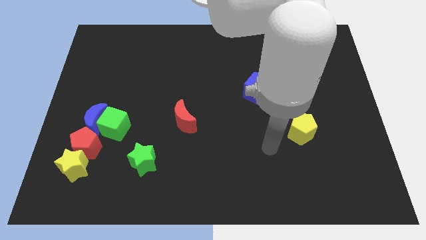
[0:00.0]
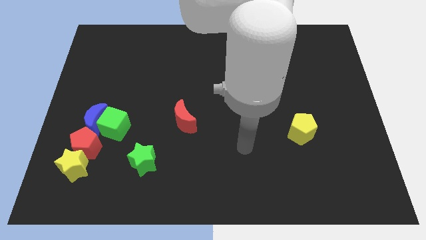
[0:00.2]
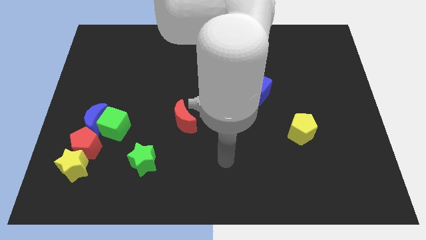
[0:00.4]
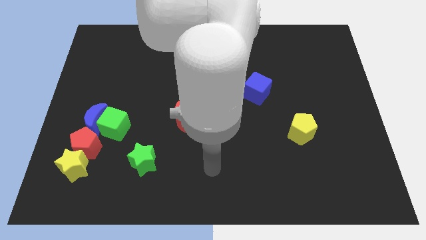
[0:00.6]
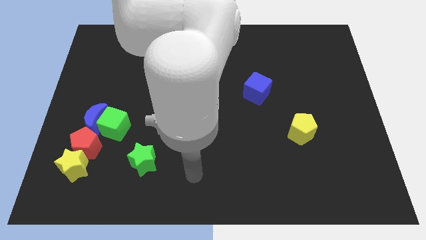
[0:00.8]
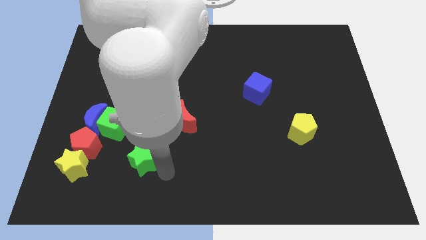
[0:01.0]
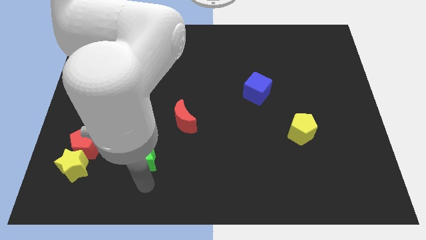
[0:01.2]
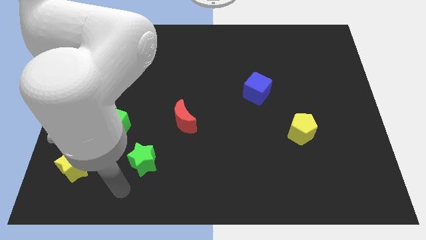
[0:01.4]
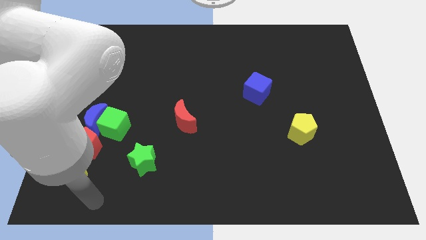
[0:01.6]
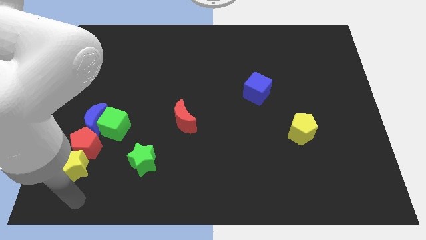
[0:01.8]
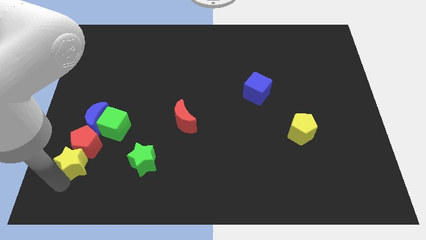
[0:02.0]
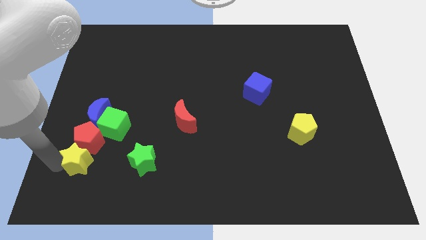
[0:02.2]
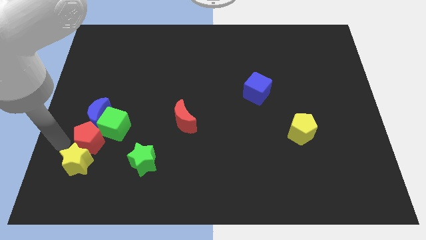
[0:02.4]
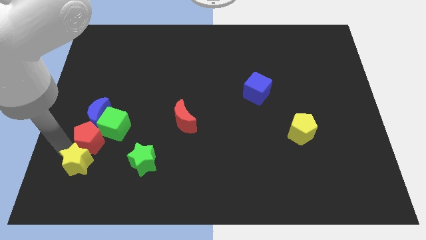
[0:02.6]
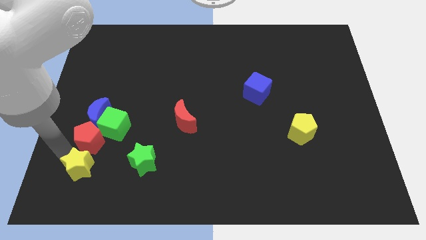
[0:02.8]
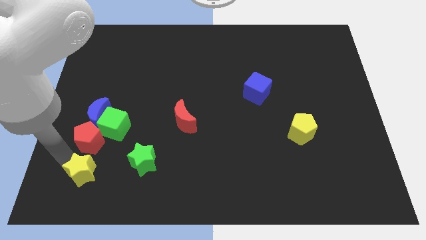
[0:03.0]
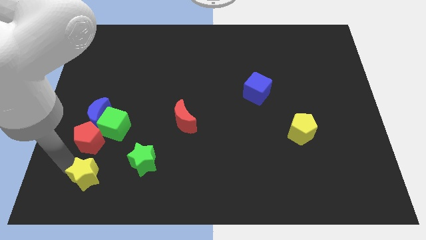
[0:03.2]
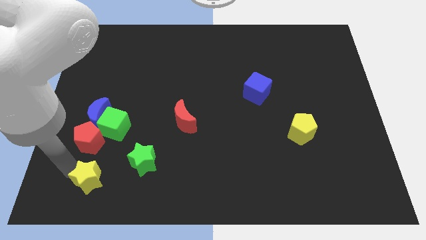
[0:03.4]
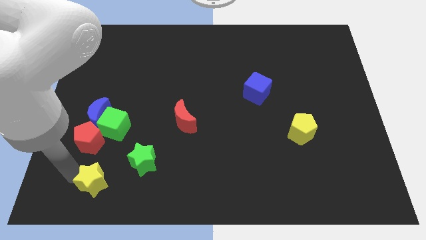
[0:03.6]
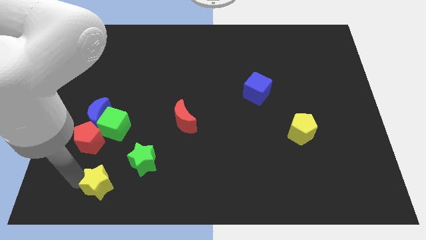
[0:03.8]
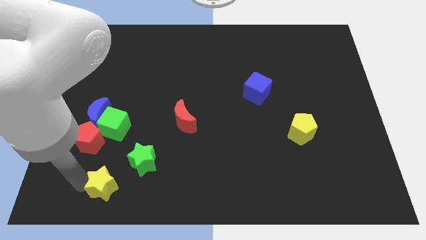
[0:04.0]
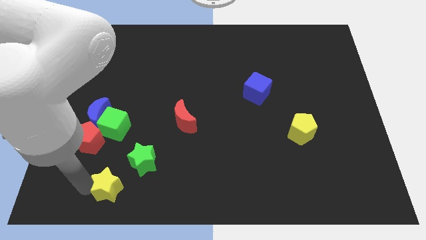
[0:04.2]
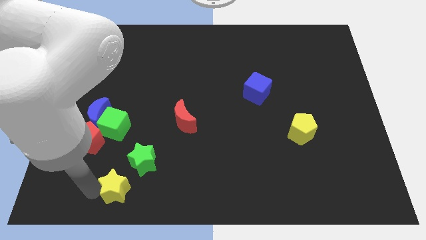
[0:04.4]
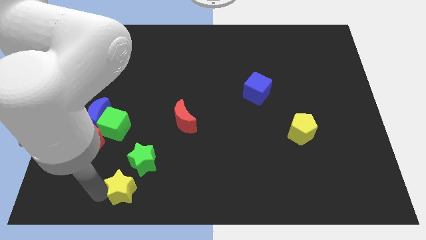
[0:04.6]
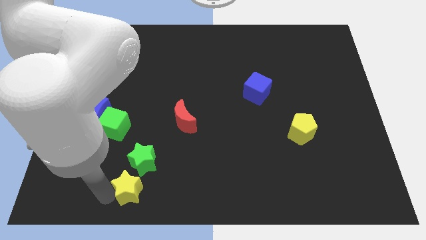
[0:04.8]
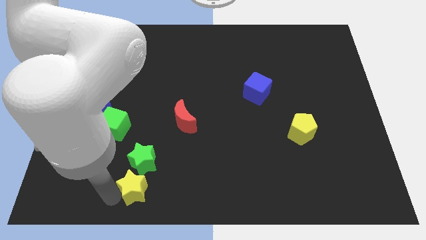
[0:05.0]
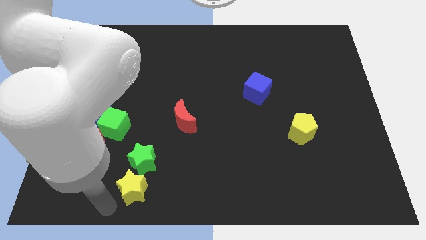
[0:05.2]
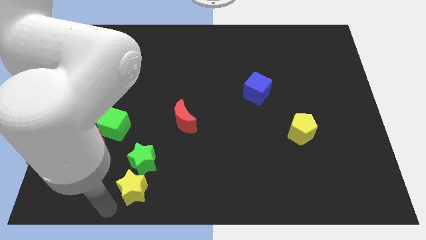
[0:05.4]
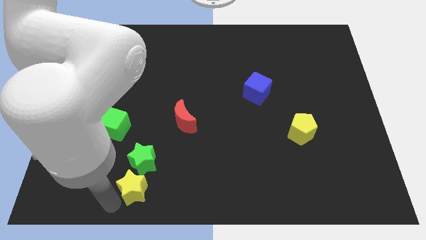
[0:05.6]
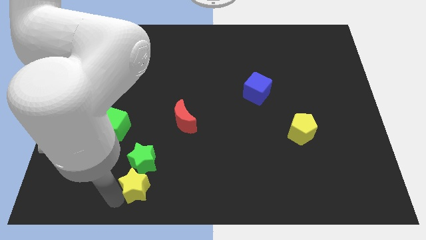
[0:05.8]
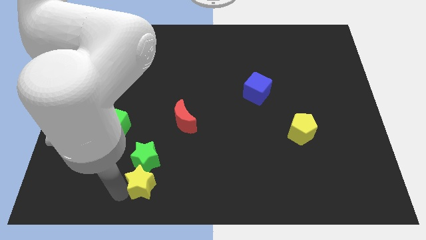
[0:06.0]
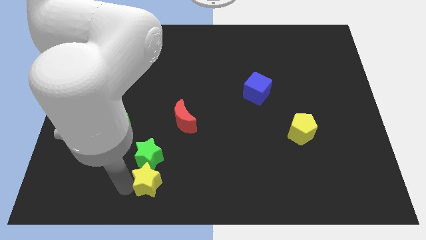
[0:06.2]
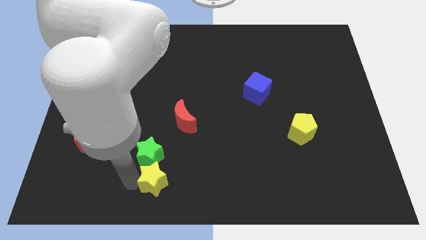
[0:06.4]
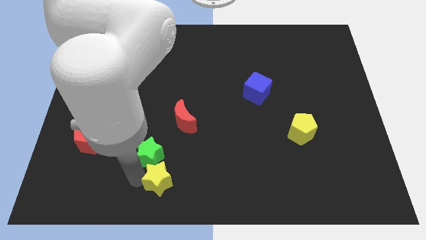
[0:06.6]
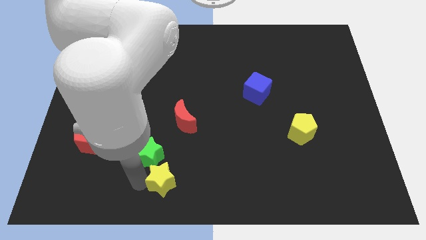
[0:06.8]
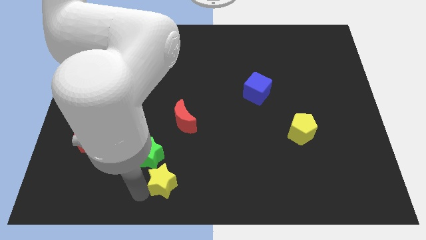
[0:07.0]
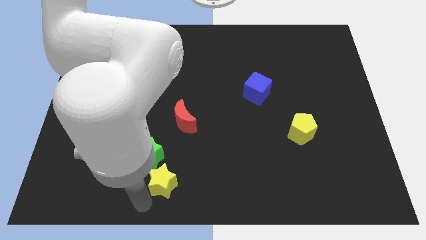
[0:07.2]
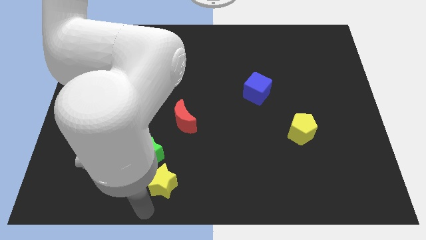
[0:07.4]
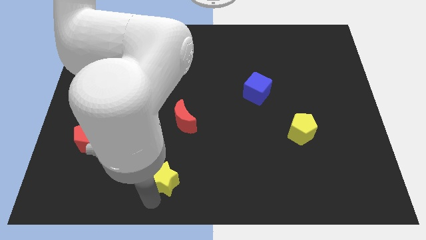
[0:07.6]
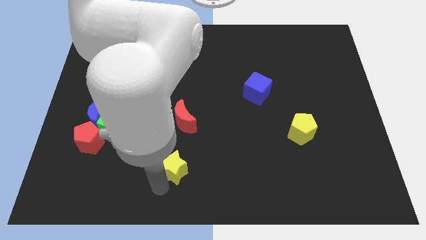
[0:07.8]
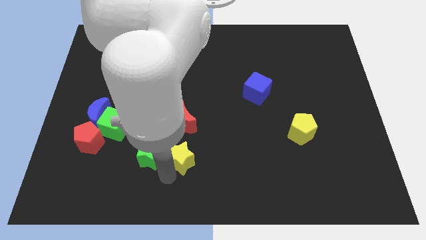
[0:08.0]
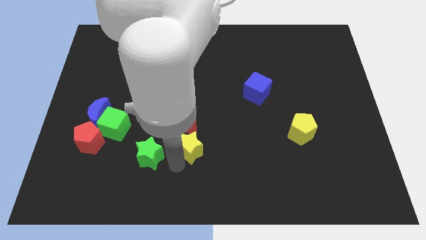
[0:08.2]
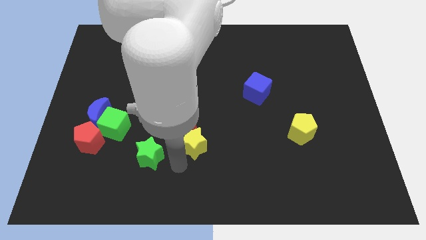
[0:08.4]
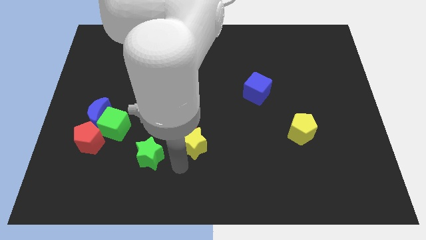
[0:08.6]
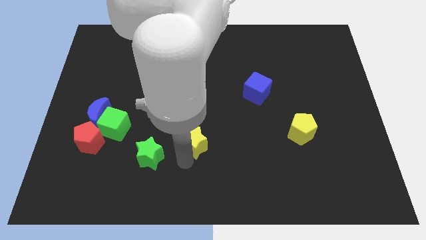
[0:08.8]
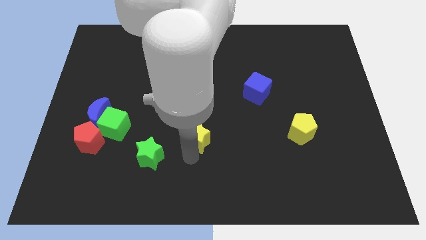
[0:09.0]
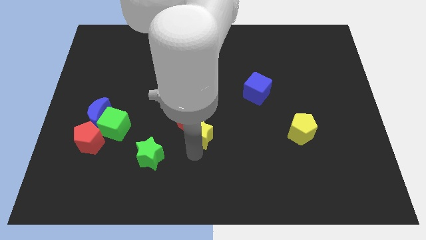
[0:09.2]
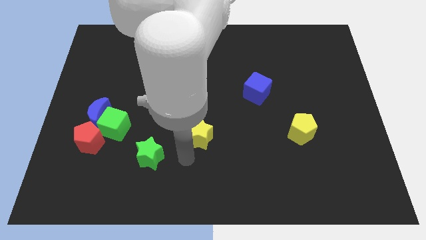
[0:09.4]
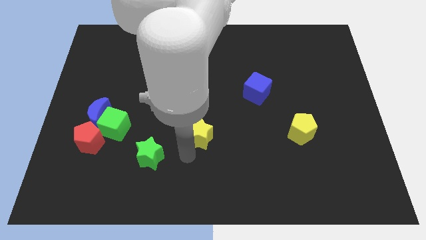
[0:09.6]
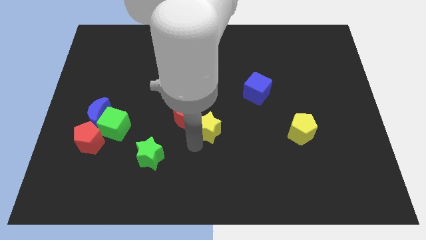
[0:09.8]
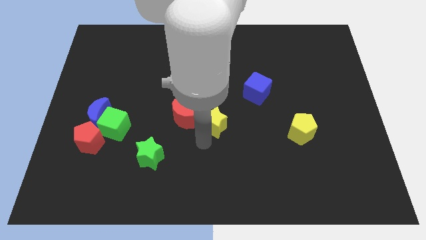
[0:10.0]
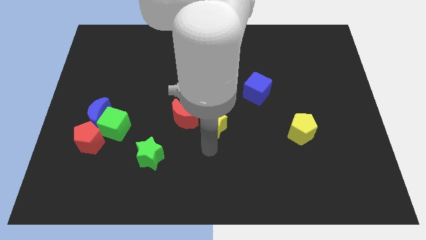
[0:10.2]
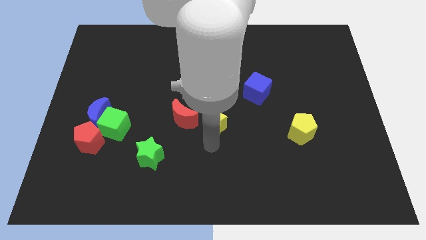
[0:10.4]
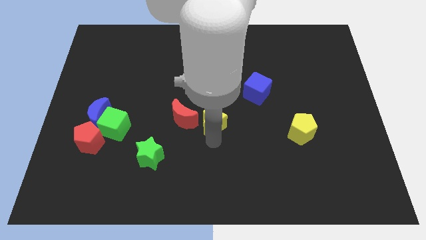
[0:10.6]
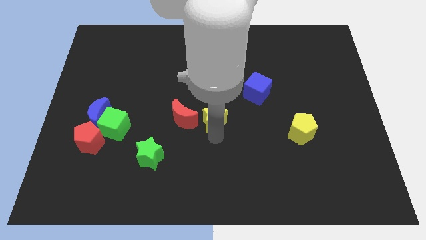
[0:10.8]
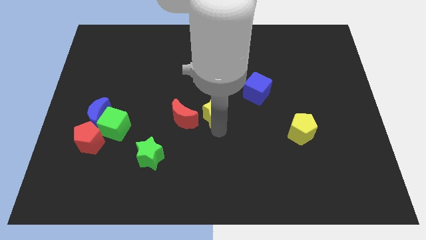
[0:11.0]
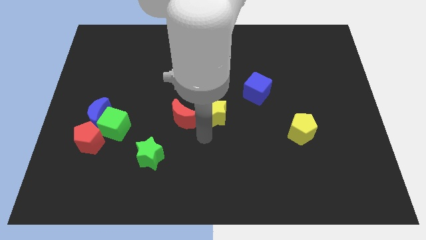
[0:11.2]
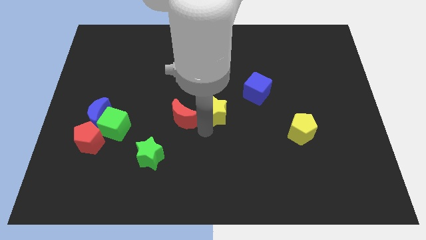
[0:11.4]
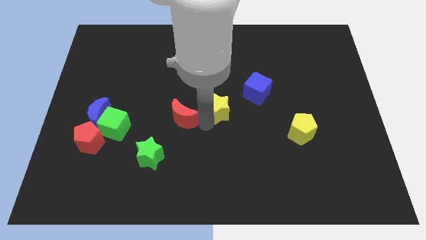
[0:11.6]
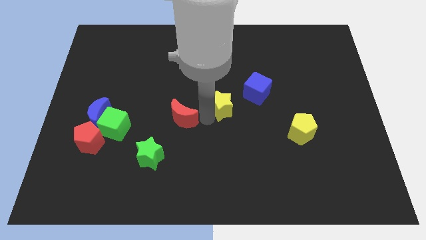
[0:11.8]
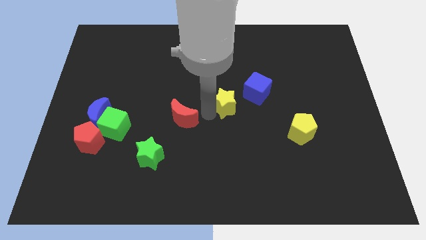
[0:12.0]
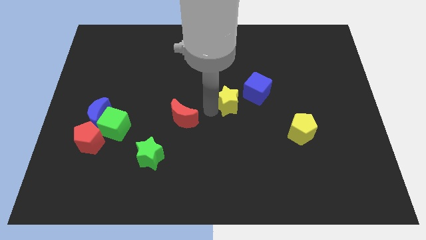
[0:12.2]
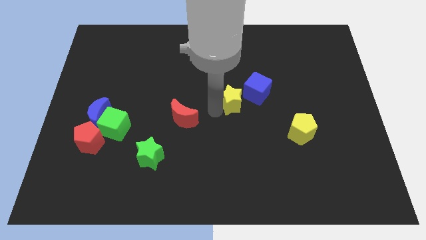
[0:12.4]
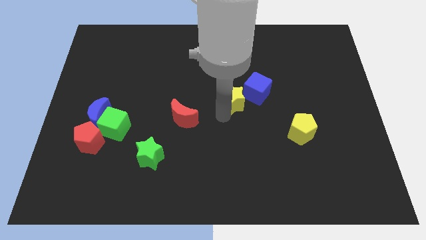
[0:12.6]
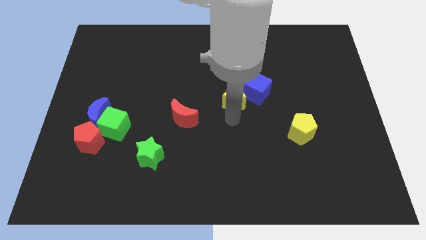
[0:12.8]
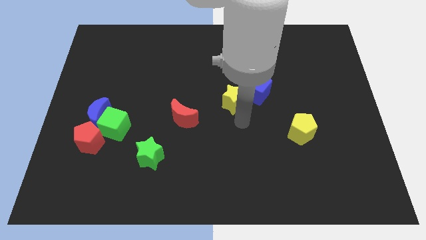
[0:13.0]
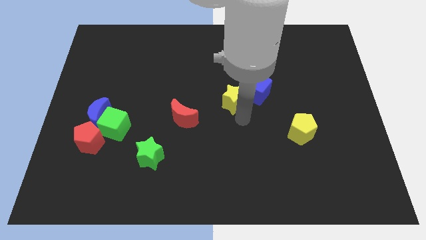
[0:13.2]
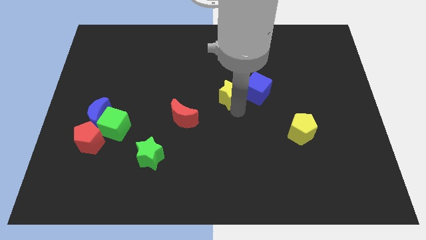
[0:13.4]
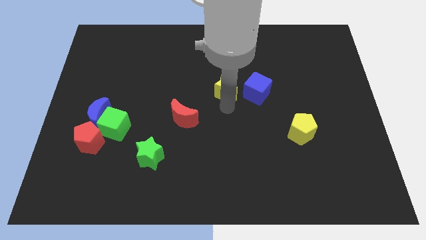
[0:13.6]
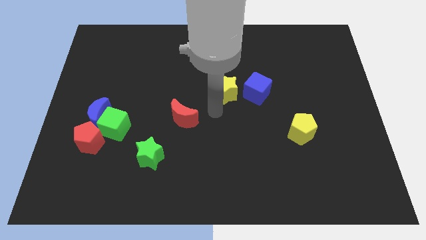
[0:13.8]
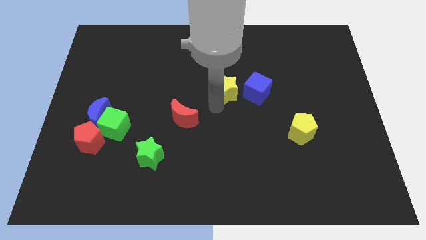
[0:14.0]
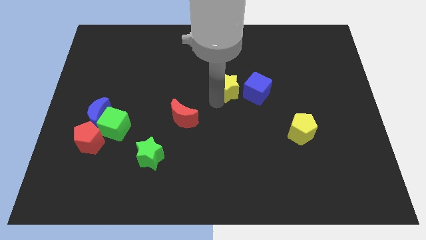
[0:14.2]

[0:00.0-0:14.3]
push the yellow star to the top left of the blue cube

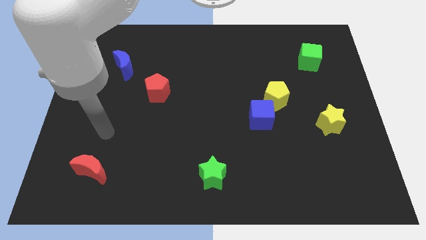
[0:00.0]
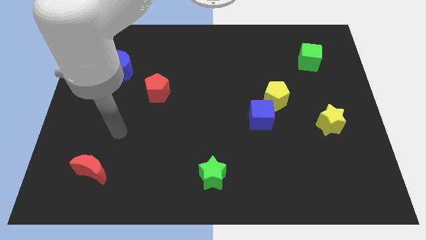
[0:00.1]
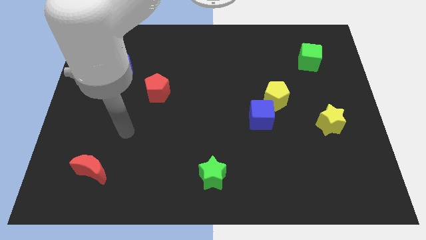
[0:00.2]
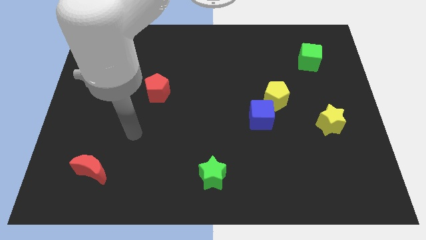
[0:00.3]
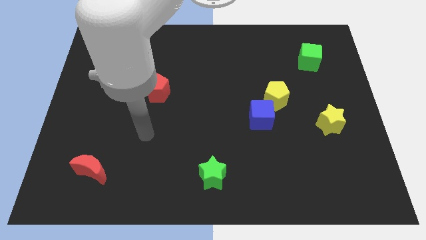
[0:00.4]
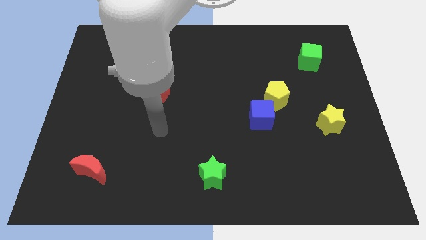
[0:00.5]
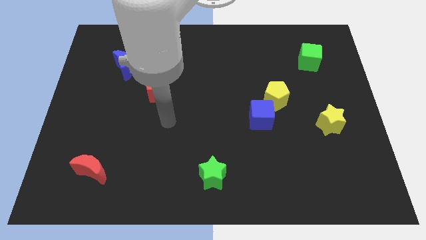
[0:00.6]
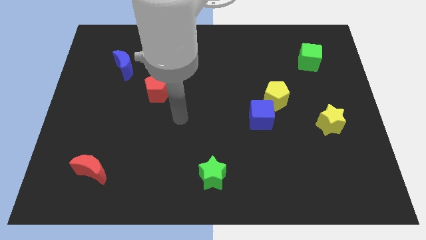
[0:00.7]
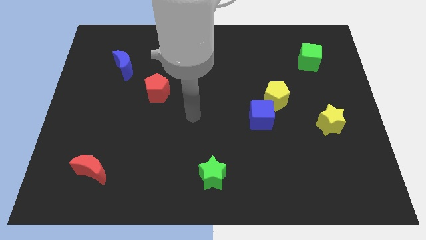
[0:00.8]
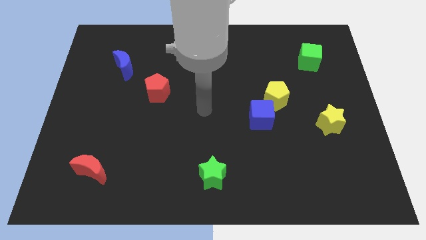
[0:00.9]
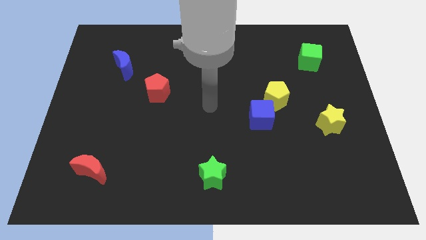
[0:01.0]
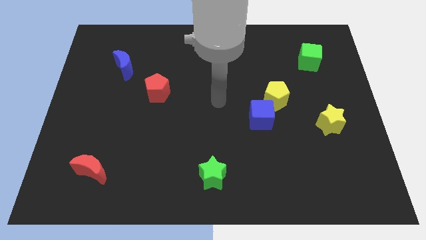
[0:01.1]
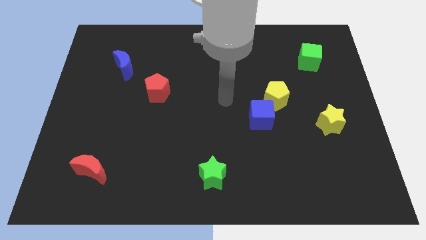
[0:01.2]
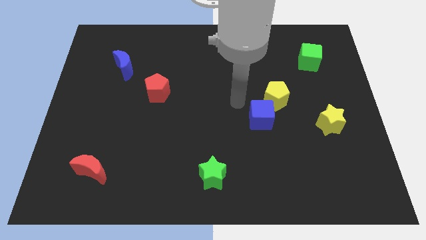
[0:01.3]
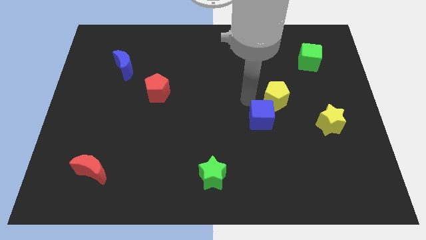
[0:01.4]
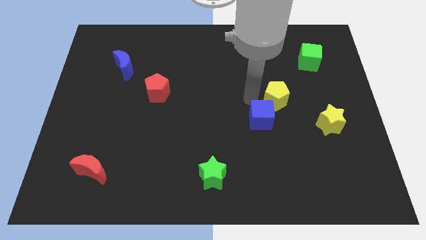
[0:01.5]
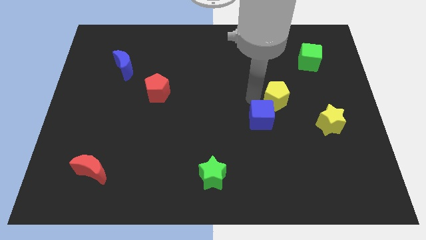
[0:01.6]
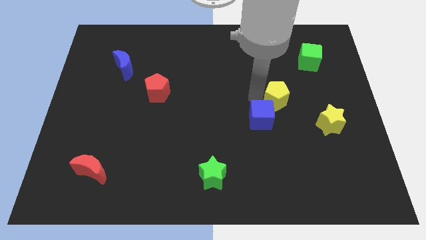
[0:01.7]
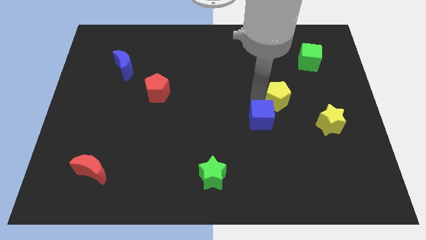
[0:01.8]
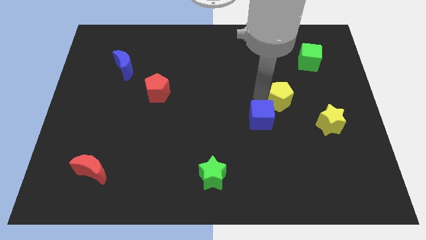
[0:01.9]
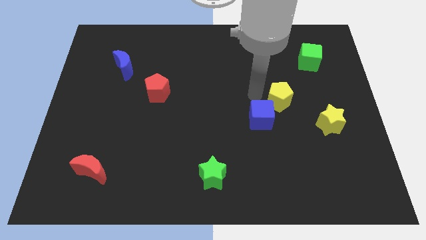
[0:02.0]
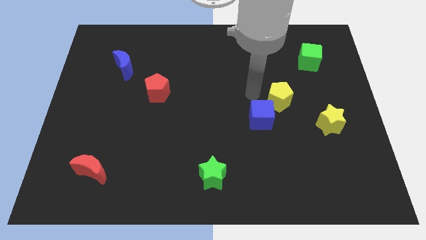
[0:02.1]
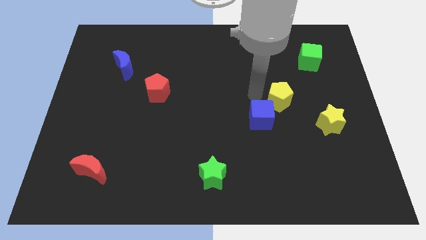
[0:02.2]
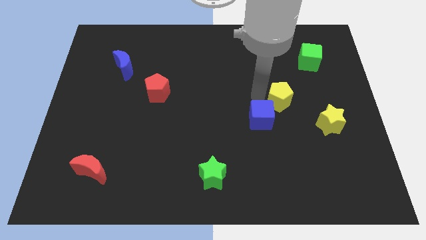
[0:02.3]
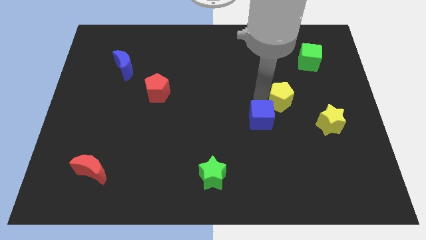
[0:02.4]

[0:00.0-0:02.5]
slide the yellow pentagon to the top left side of the yellow star
